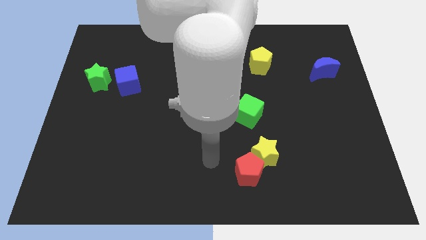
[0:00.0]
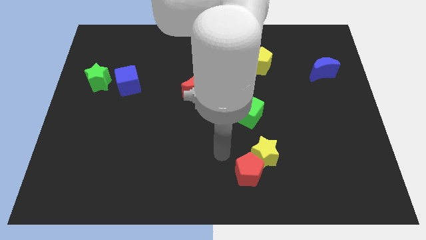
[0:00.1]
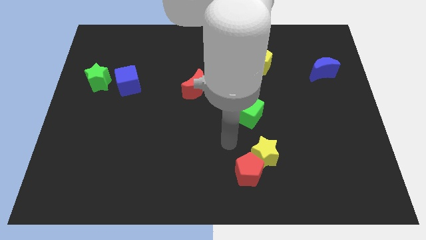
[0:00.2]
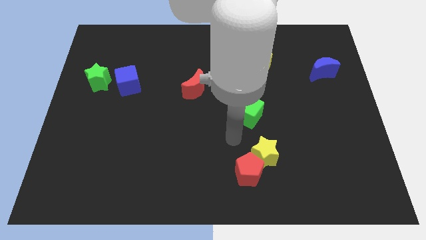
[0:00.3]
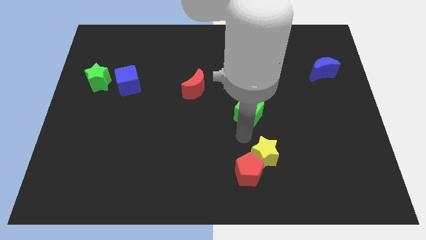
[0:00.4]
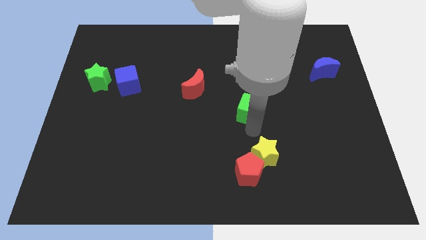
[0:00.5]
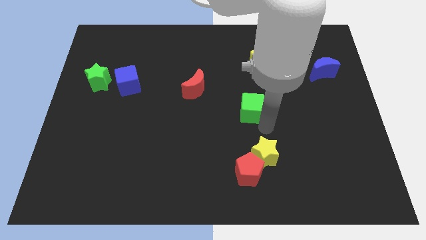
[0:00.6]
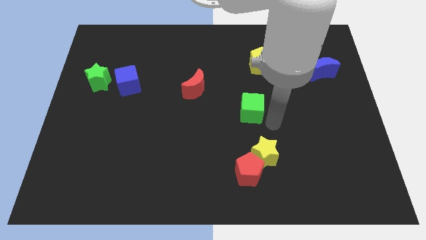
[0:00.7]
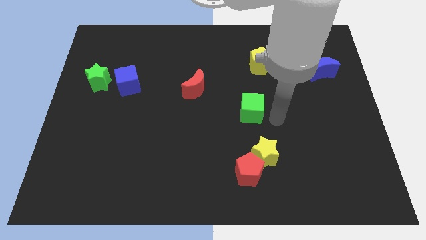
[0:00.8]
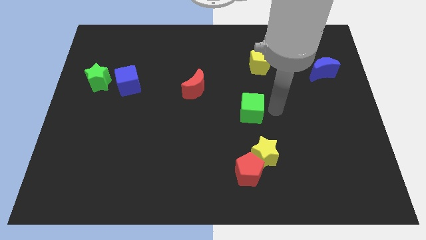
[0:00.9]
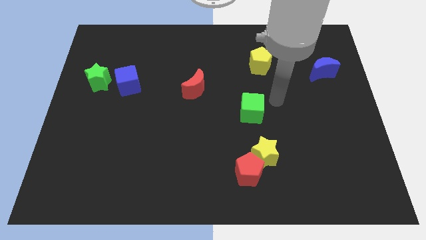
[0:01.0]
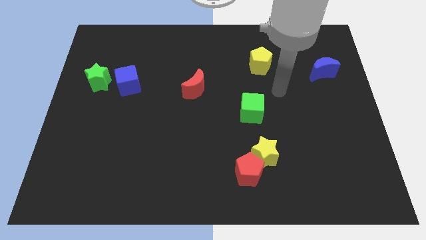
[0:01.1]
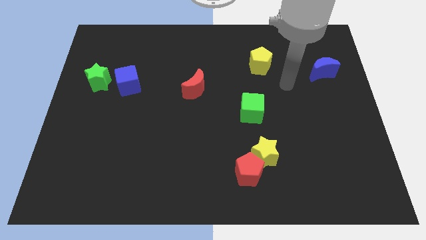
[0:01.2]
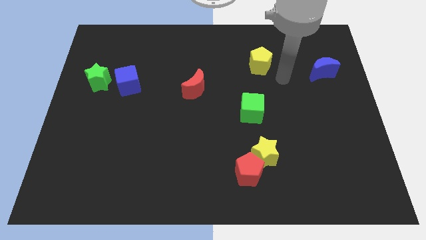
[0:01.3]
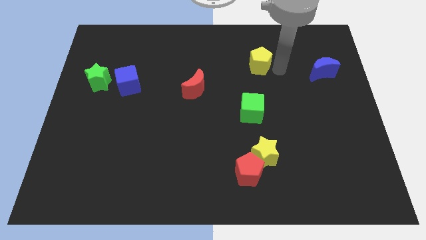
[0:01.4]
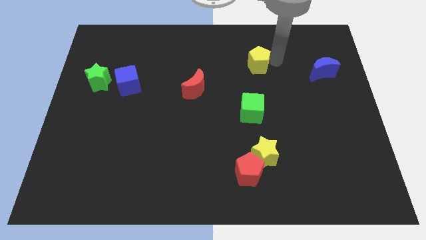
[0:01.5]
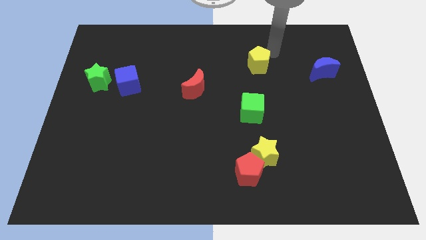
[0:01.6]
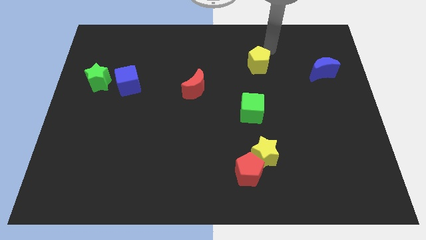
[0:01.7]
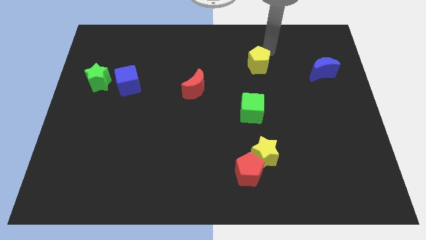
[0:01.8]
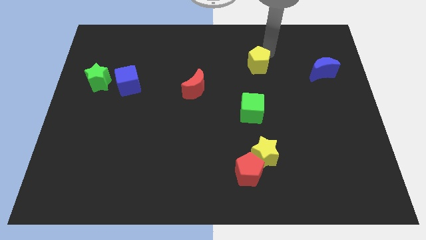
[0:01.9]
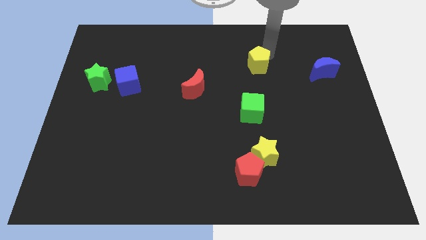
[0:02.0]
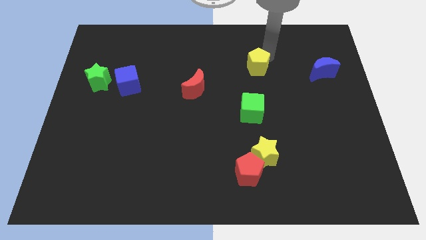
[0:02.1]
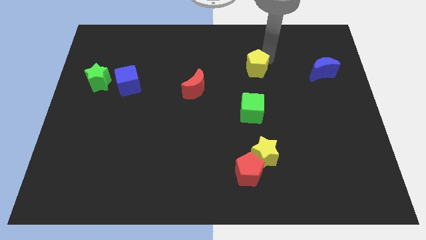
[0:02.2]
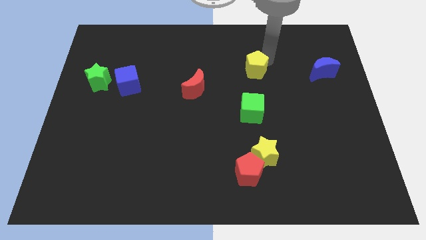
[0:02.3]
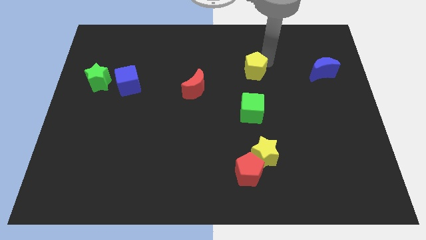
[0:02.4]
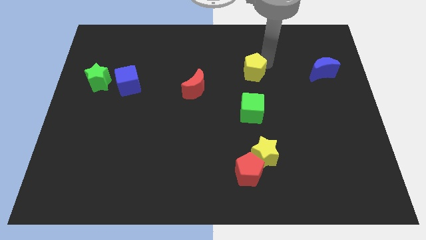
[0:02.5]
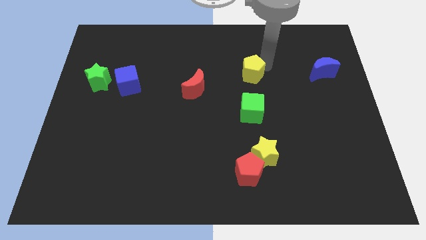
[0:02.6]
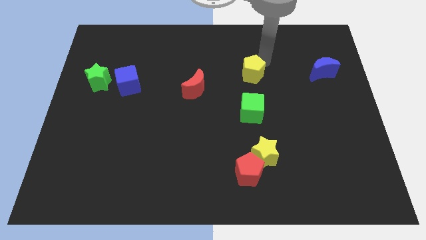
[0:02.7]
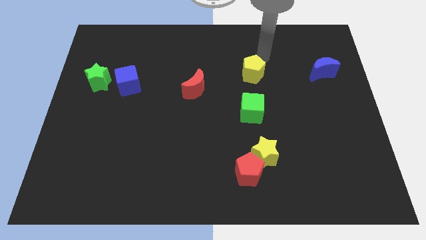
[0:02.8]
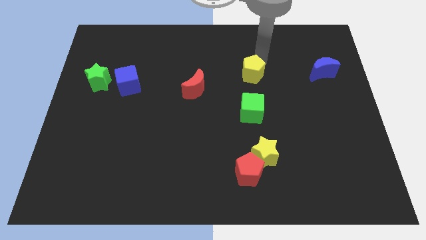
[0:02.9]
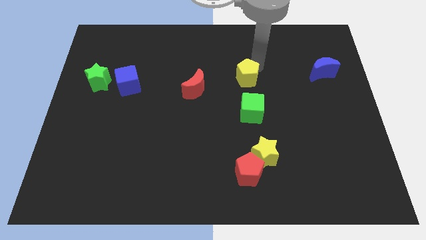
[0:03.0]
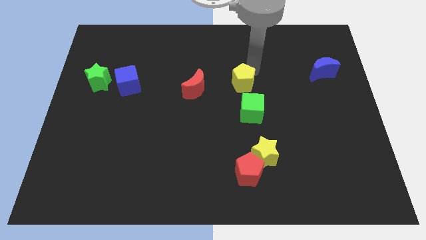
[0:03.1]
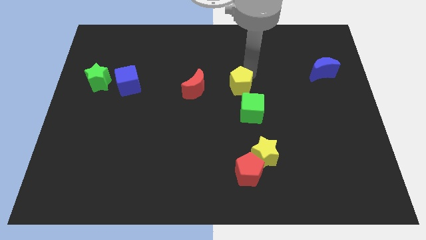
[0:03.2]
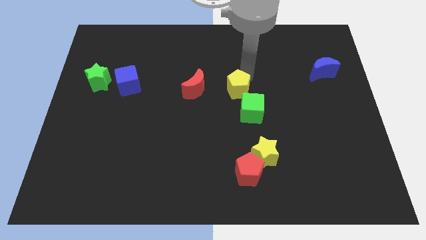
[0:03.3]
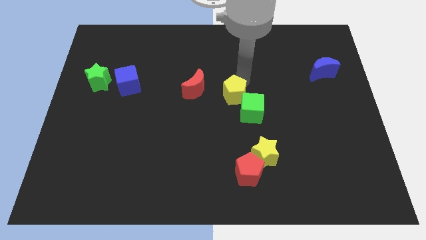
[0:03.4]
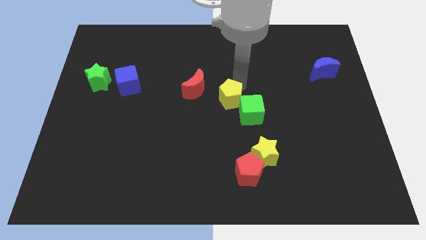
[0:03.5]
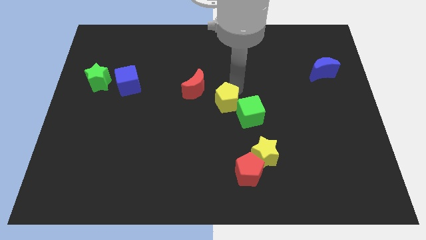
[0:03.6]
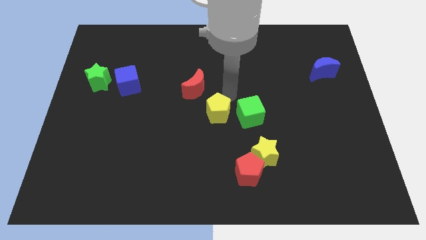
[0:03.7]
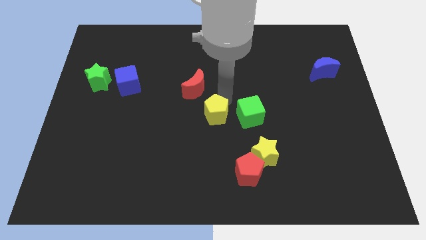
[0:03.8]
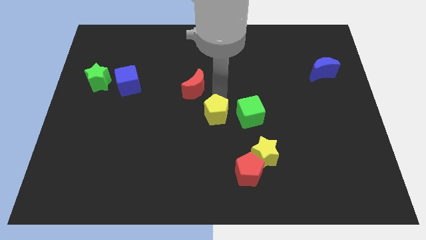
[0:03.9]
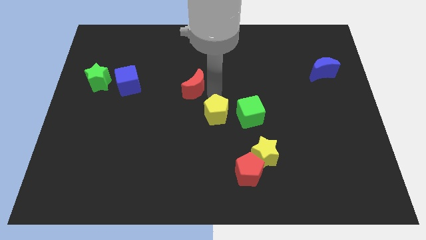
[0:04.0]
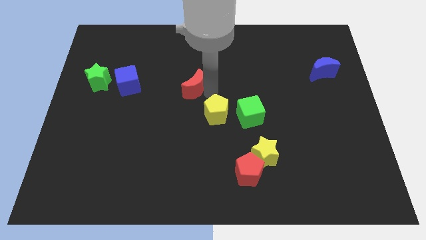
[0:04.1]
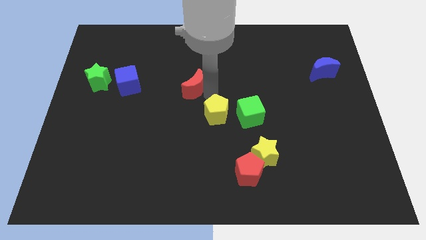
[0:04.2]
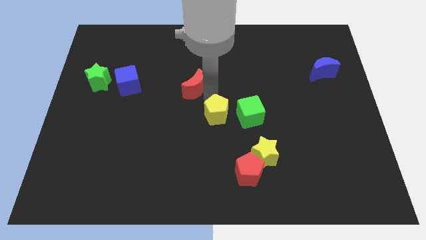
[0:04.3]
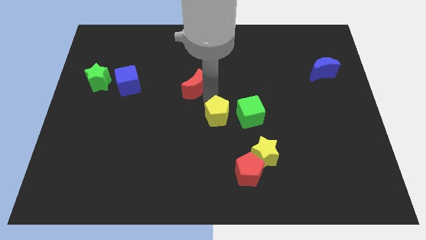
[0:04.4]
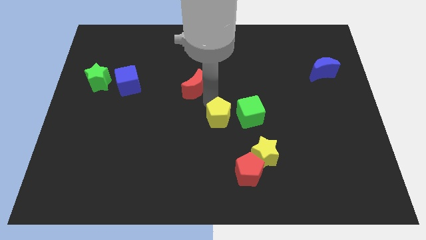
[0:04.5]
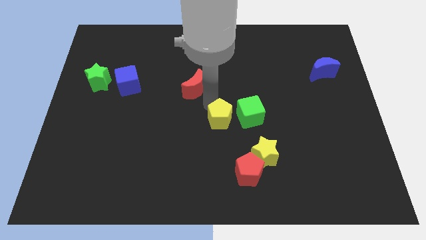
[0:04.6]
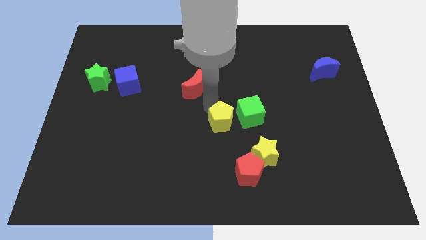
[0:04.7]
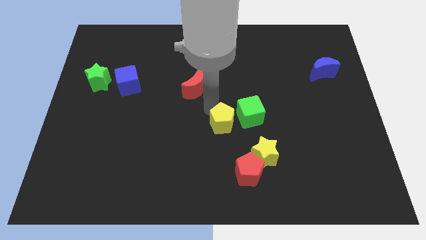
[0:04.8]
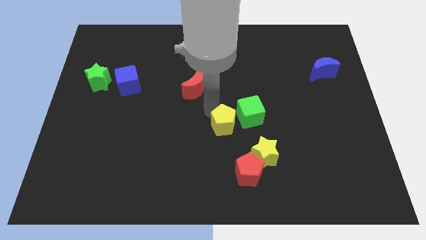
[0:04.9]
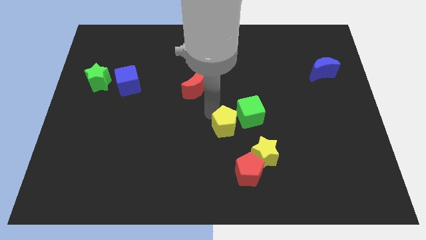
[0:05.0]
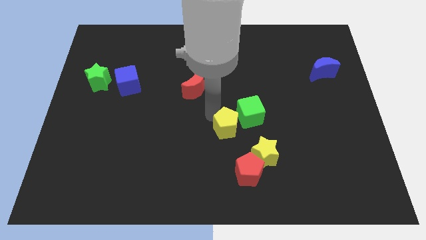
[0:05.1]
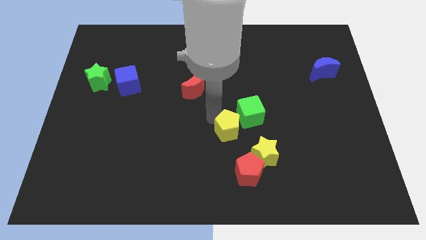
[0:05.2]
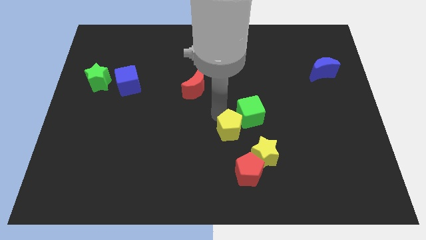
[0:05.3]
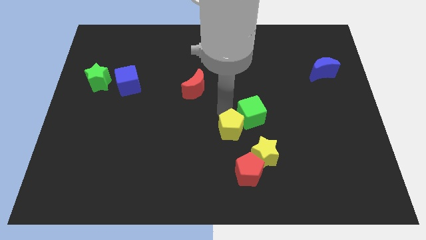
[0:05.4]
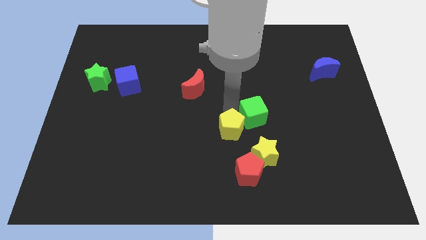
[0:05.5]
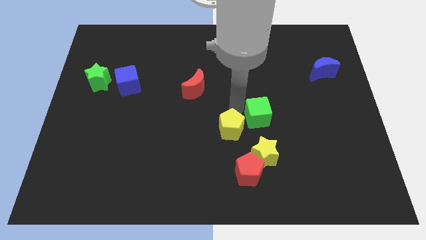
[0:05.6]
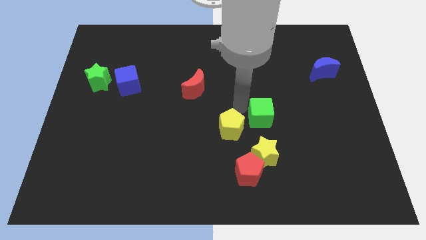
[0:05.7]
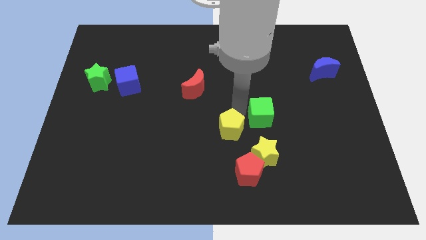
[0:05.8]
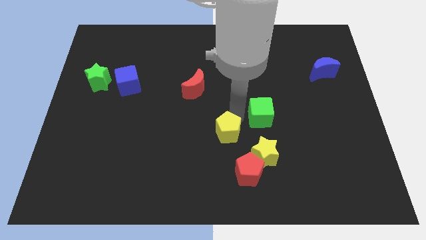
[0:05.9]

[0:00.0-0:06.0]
move the yellow pentagon to the top left of the red pentagon

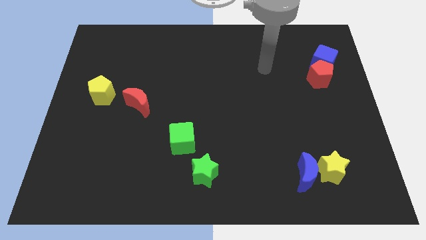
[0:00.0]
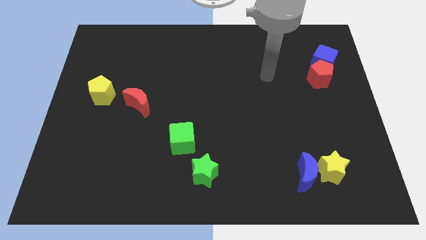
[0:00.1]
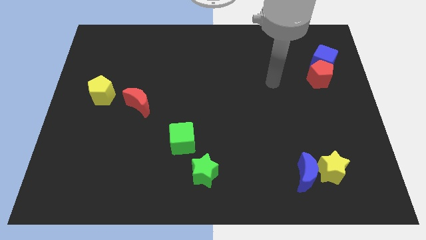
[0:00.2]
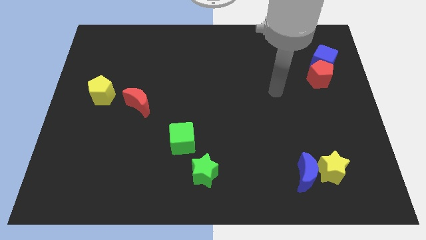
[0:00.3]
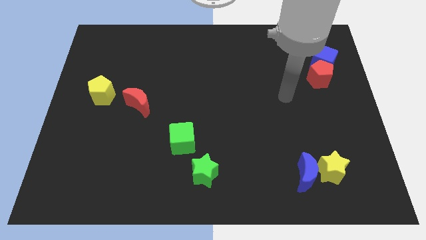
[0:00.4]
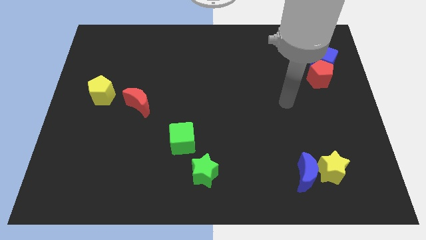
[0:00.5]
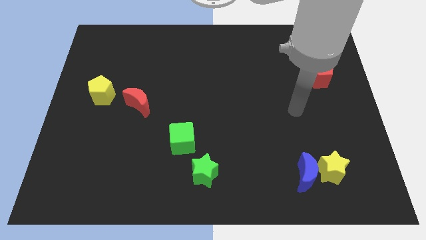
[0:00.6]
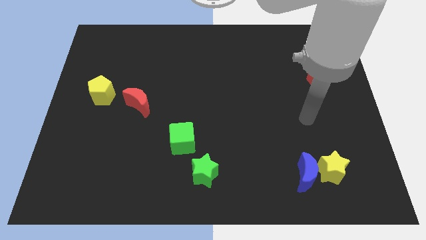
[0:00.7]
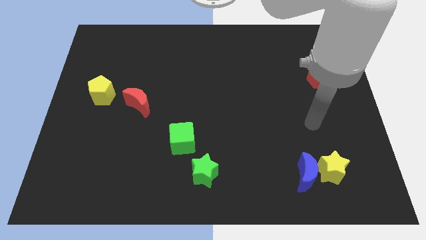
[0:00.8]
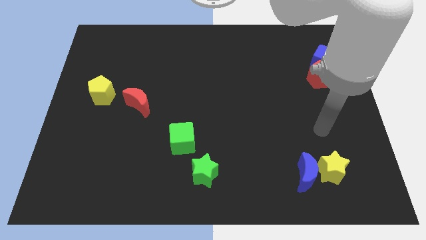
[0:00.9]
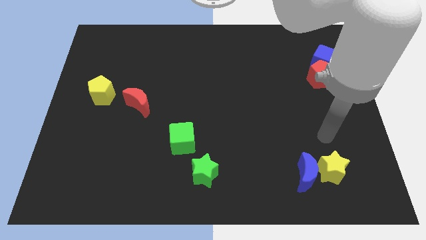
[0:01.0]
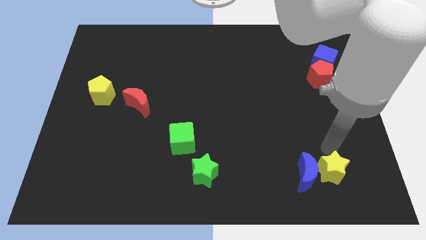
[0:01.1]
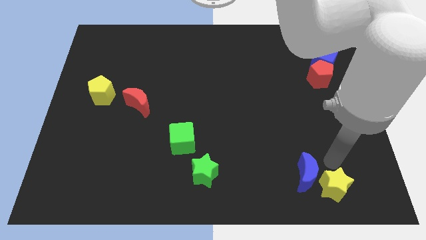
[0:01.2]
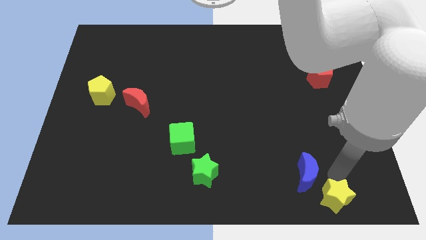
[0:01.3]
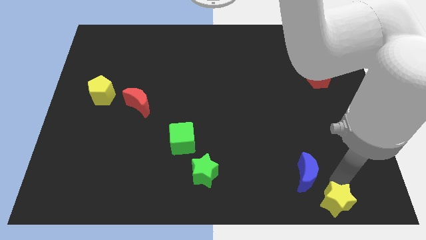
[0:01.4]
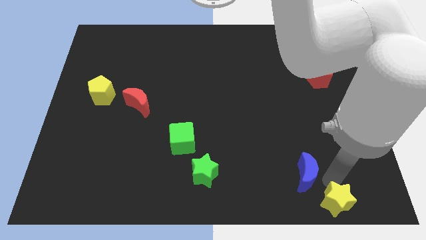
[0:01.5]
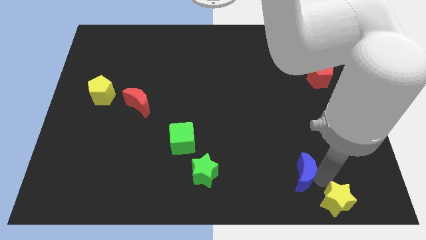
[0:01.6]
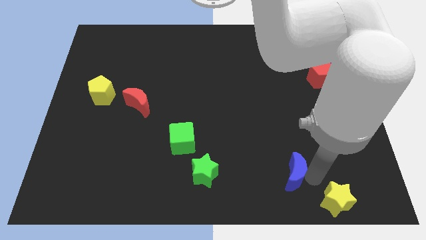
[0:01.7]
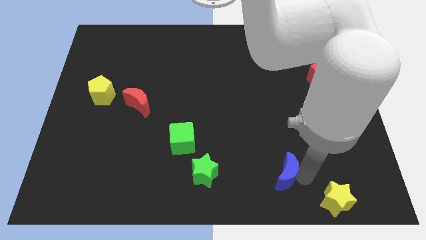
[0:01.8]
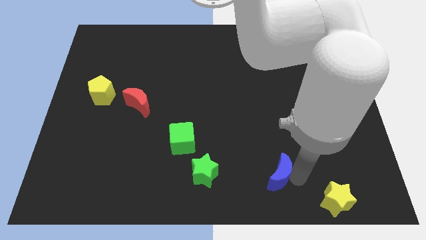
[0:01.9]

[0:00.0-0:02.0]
push the blue moon just right of the green star
